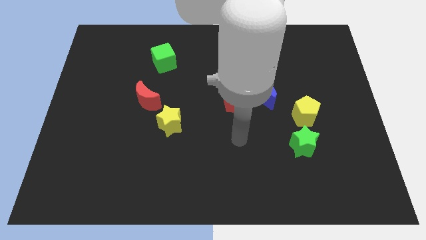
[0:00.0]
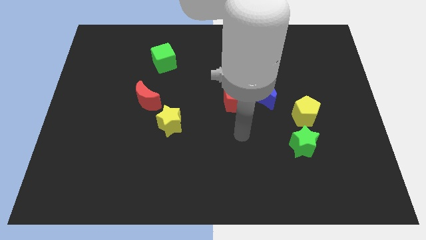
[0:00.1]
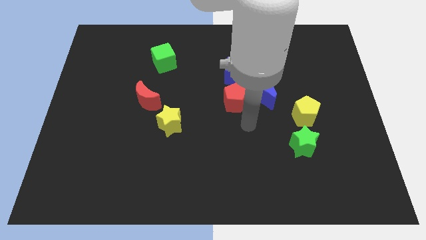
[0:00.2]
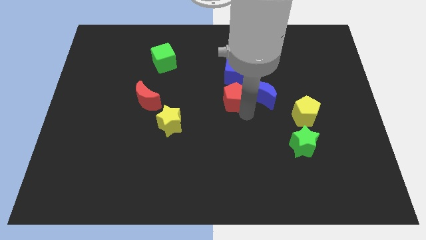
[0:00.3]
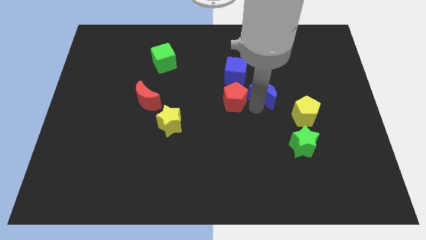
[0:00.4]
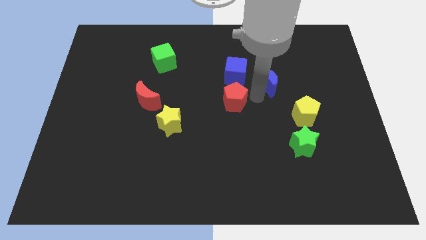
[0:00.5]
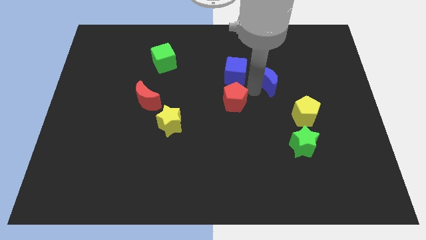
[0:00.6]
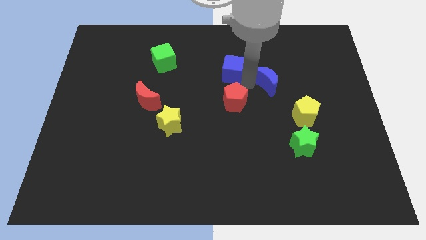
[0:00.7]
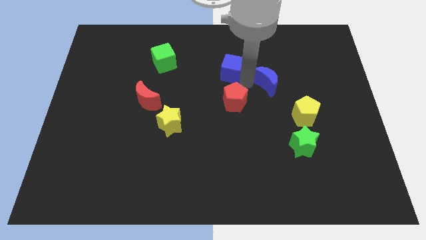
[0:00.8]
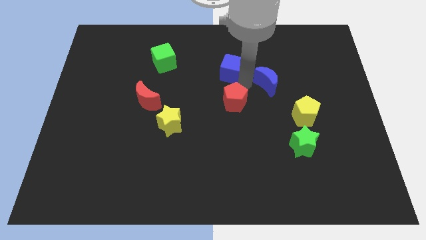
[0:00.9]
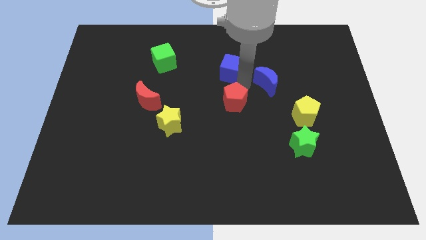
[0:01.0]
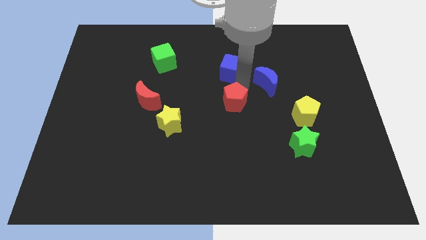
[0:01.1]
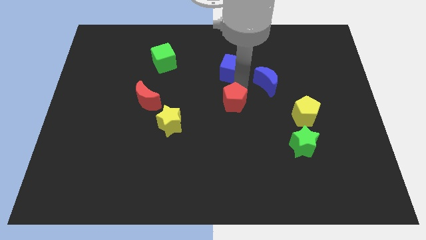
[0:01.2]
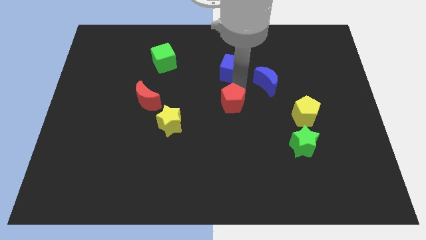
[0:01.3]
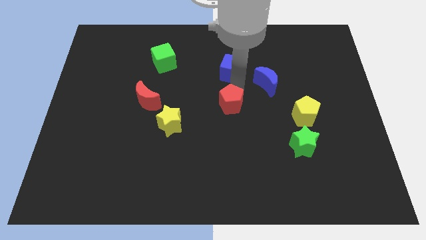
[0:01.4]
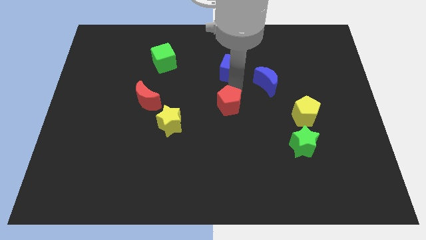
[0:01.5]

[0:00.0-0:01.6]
separate the red pentagon from the blue moon and blue cube

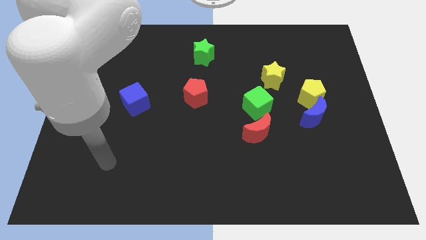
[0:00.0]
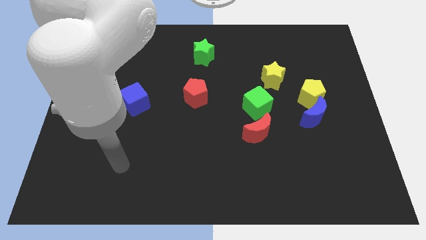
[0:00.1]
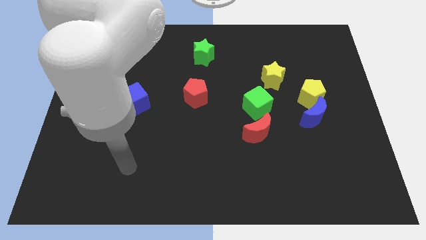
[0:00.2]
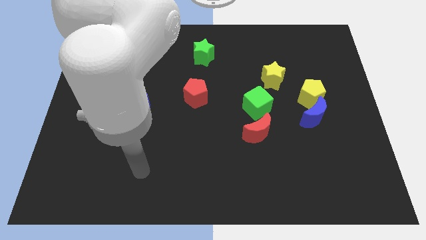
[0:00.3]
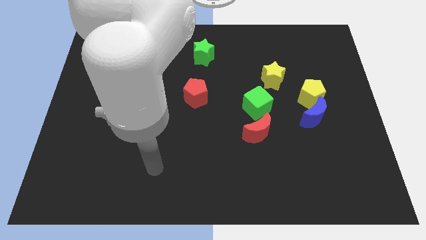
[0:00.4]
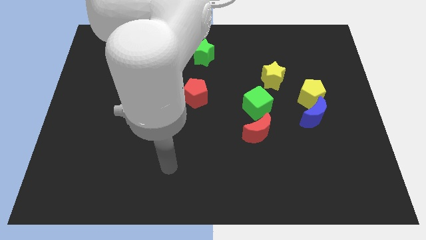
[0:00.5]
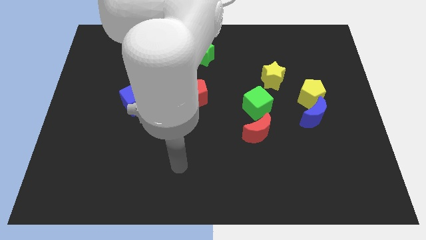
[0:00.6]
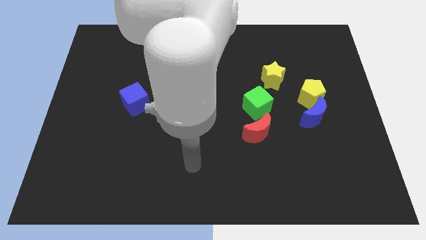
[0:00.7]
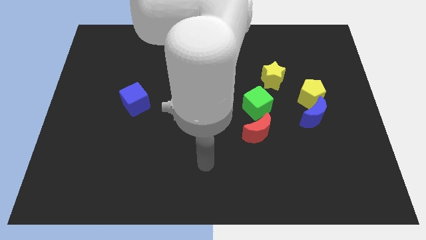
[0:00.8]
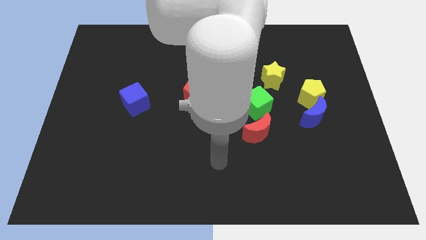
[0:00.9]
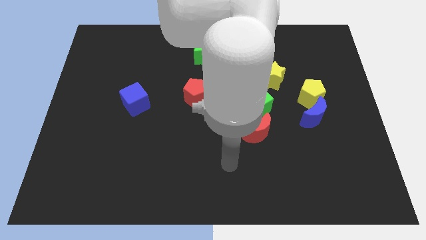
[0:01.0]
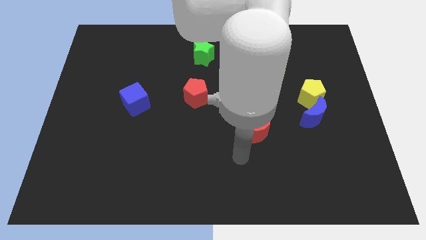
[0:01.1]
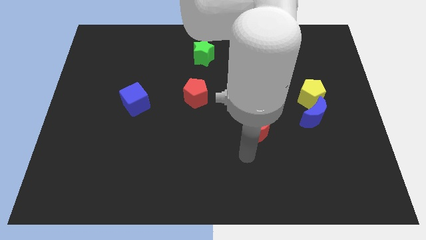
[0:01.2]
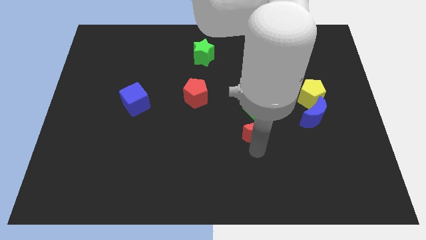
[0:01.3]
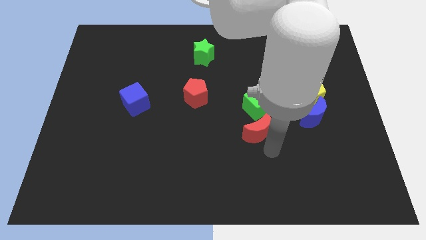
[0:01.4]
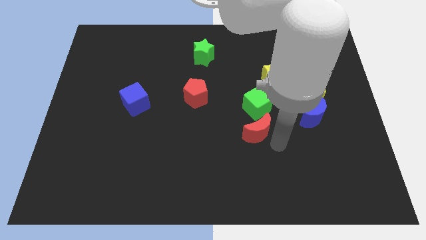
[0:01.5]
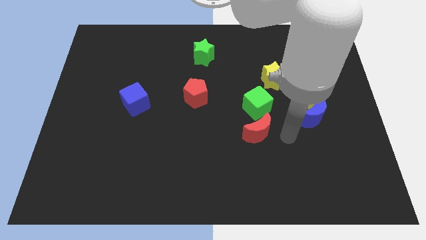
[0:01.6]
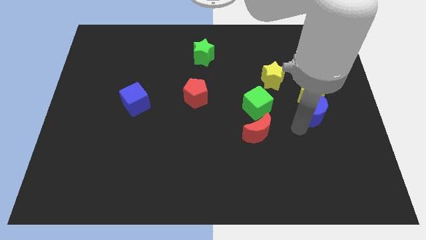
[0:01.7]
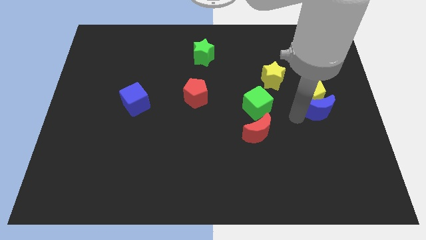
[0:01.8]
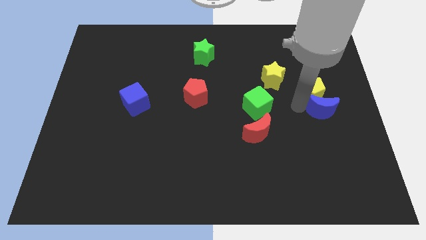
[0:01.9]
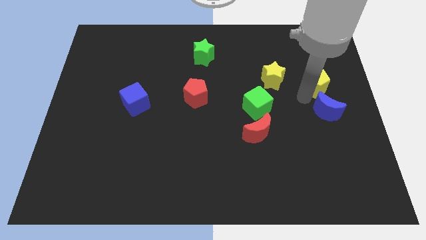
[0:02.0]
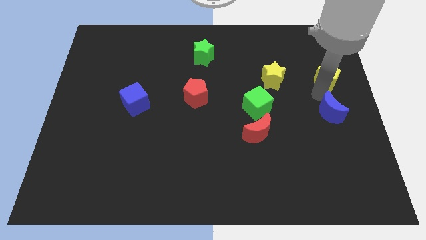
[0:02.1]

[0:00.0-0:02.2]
move the blue moon away from the yellow pentagon

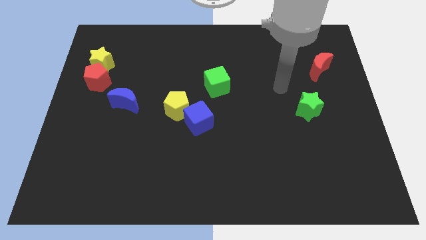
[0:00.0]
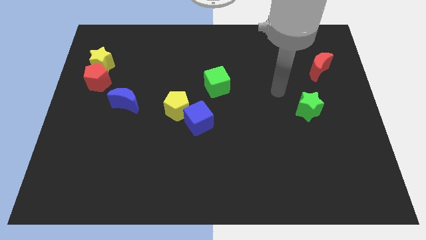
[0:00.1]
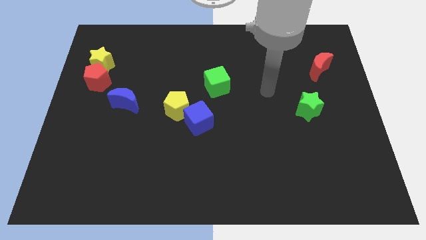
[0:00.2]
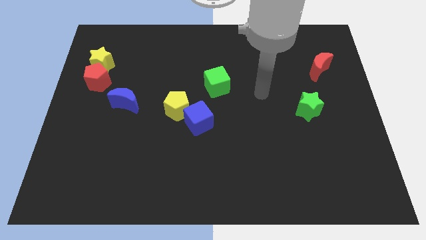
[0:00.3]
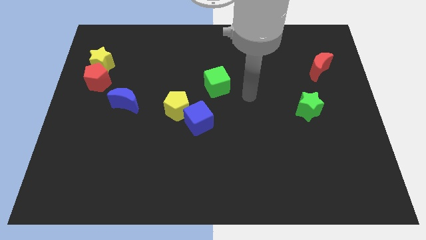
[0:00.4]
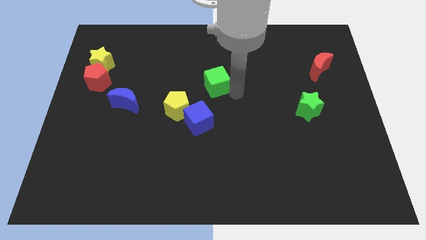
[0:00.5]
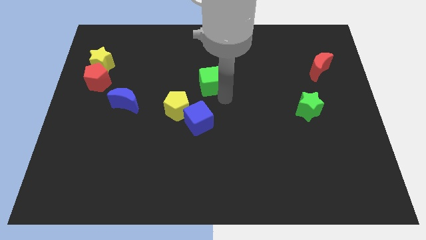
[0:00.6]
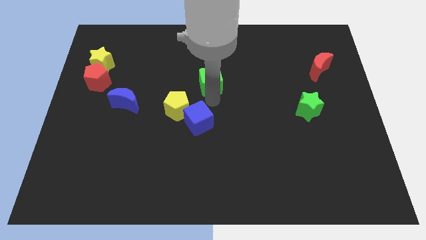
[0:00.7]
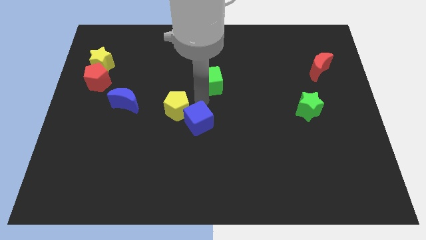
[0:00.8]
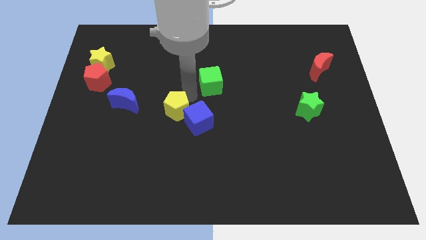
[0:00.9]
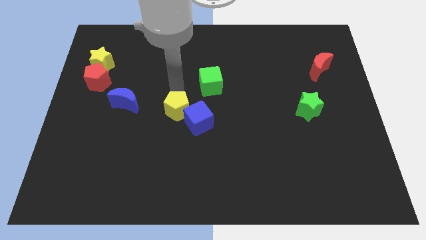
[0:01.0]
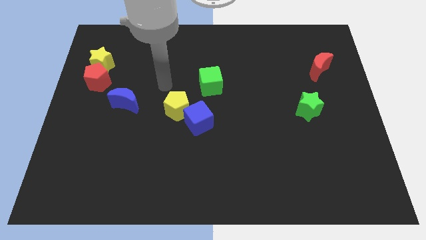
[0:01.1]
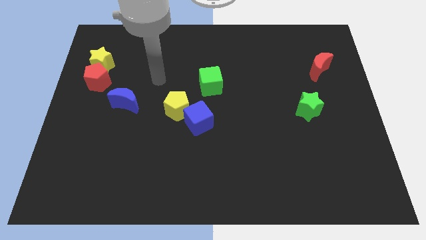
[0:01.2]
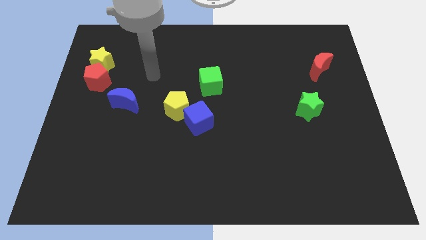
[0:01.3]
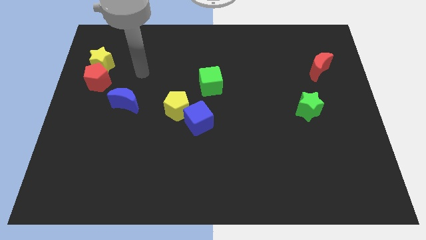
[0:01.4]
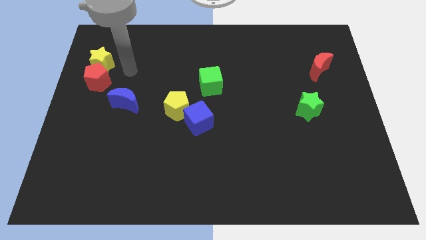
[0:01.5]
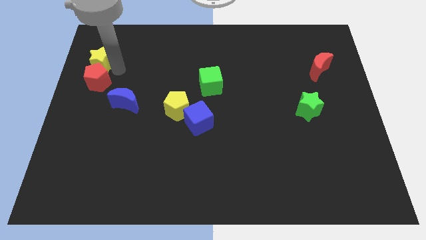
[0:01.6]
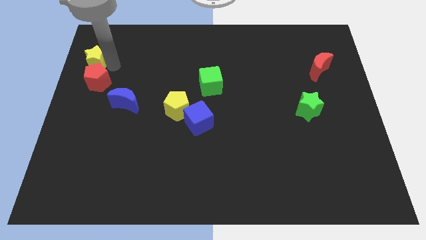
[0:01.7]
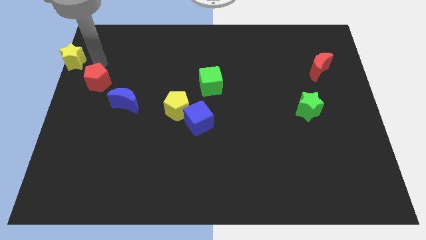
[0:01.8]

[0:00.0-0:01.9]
pull the red pentagon apart from the yellow star

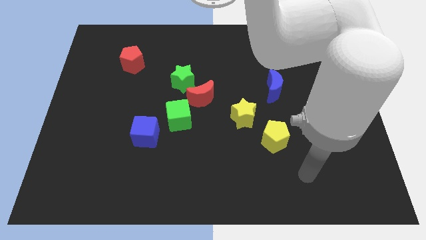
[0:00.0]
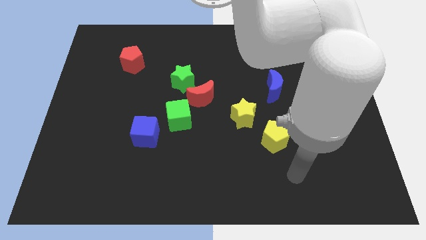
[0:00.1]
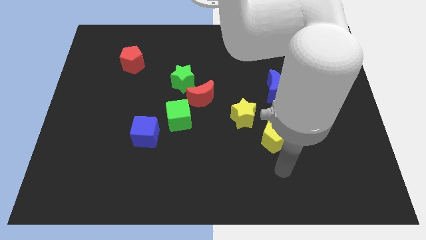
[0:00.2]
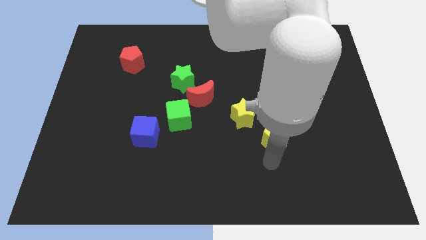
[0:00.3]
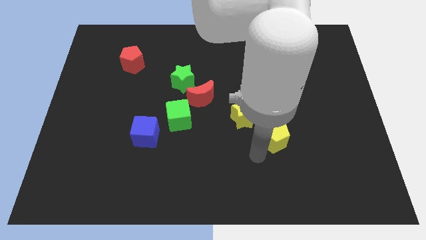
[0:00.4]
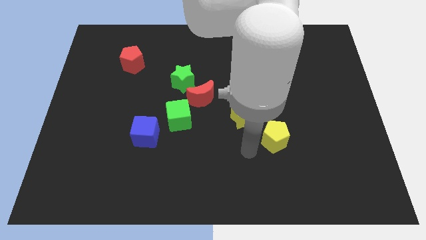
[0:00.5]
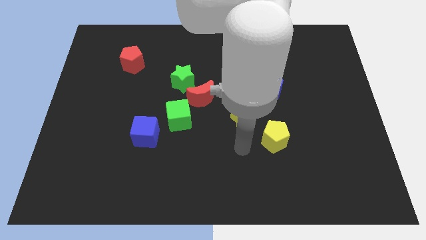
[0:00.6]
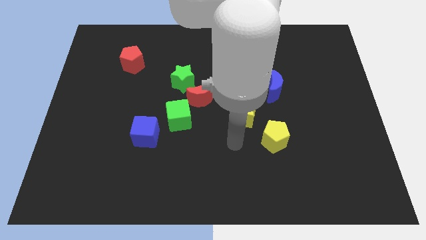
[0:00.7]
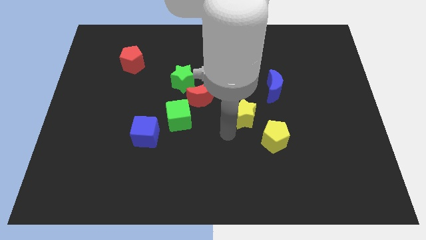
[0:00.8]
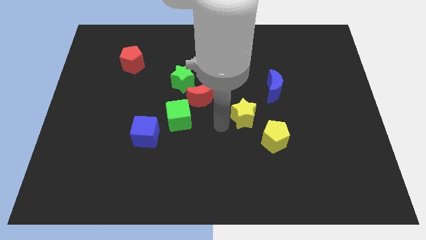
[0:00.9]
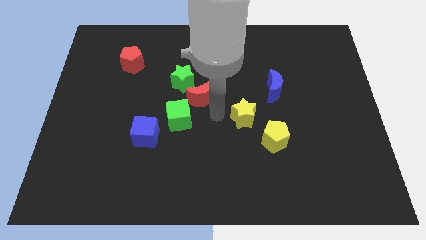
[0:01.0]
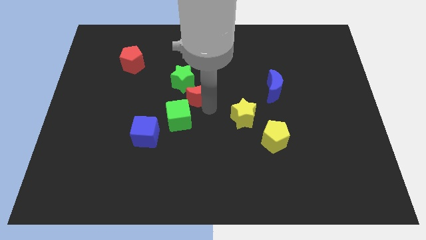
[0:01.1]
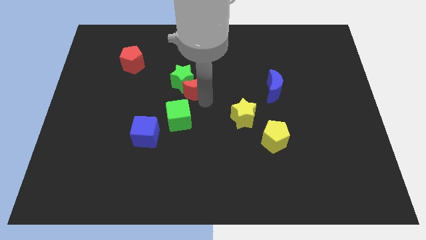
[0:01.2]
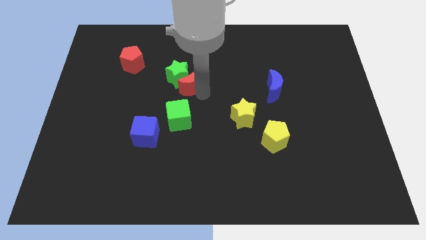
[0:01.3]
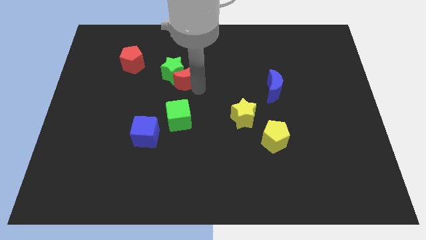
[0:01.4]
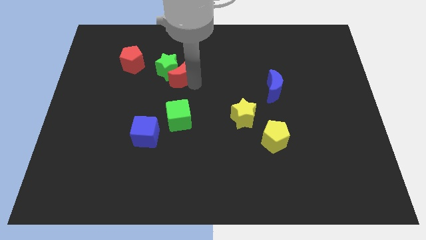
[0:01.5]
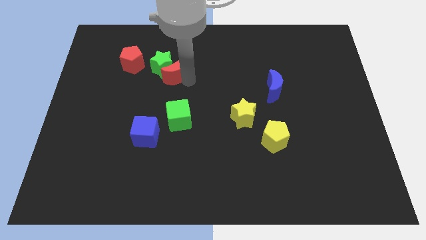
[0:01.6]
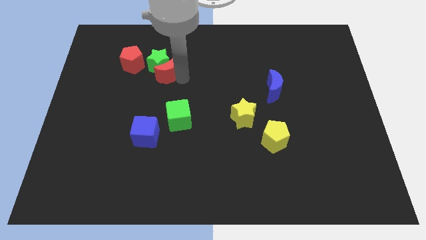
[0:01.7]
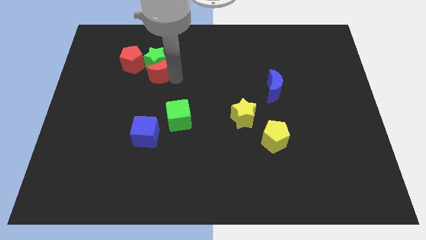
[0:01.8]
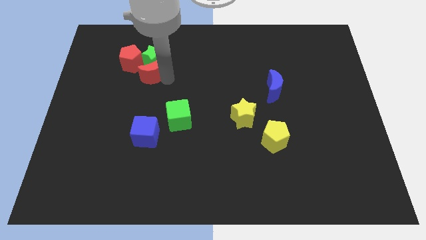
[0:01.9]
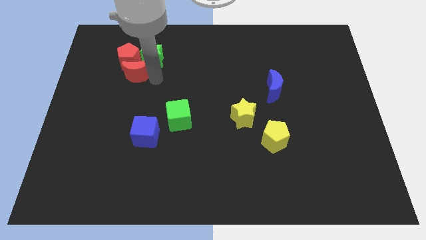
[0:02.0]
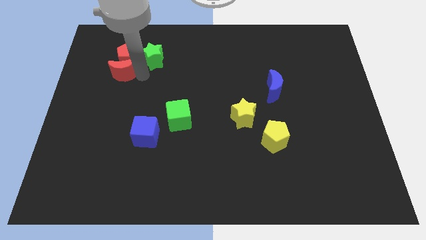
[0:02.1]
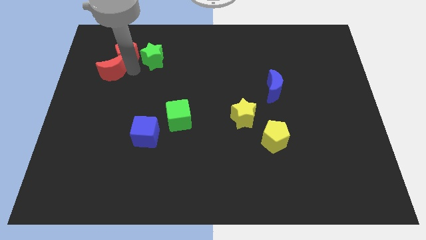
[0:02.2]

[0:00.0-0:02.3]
separate the green star from the red moon

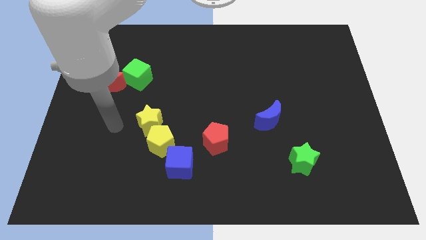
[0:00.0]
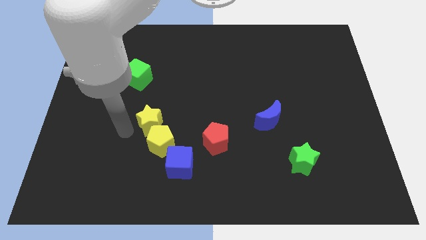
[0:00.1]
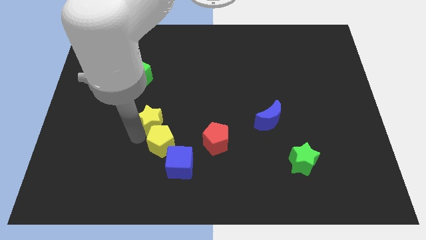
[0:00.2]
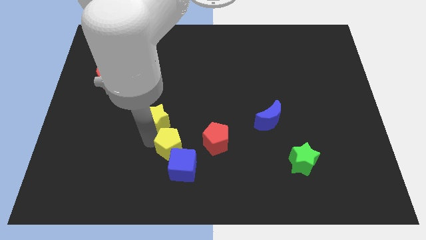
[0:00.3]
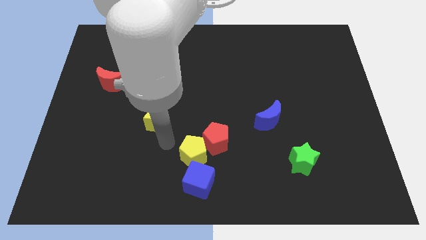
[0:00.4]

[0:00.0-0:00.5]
separate the yellow star from the yellow pentagon

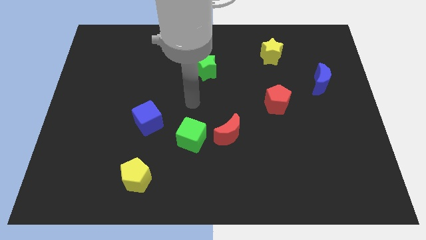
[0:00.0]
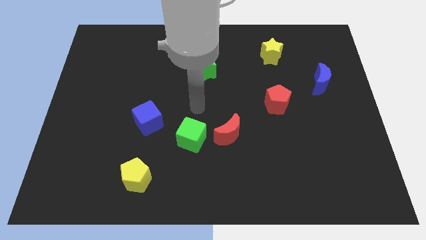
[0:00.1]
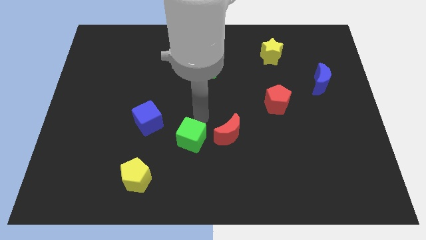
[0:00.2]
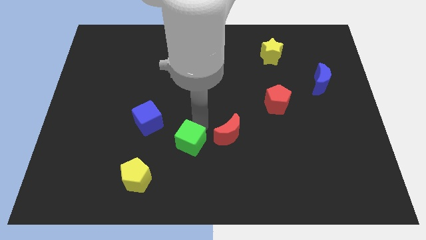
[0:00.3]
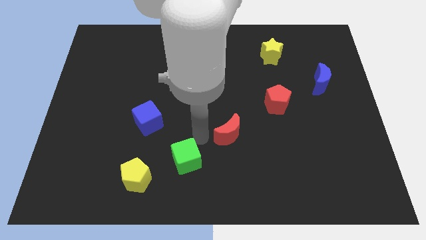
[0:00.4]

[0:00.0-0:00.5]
pull the red moon apart from the green cube

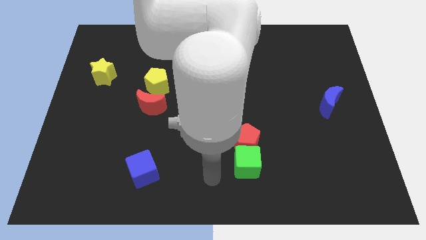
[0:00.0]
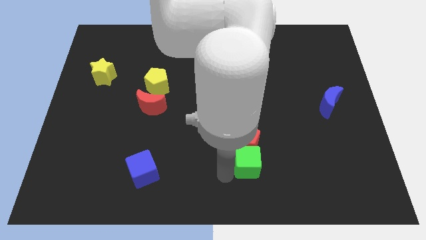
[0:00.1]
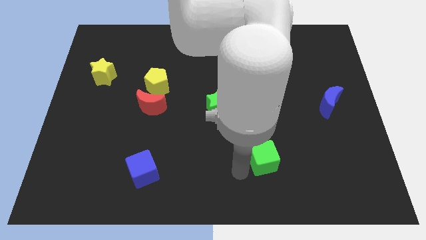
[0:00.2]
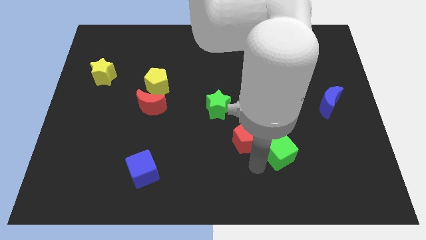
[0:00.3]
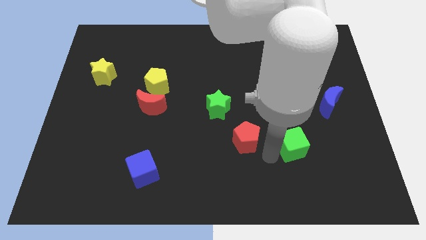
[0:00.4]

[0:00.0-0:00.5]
pull the red pentagon apart from the green cube
